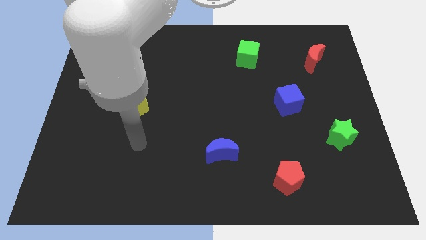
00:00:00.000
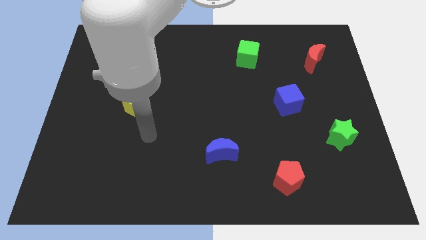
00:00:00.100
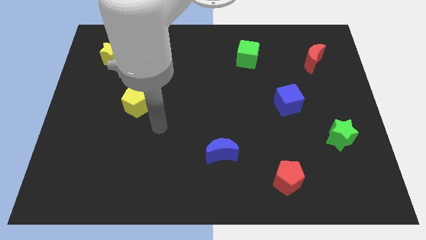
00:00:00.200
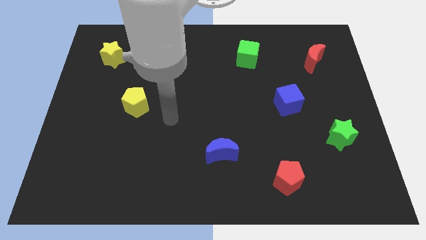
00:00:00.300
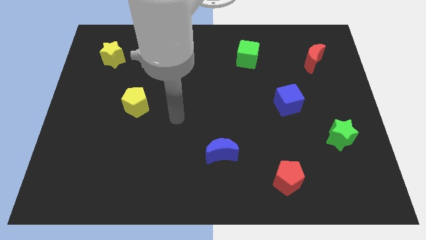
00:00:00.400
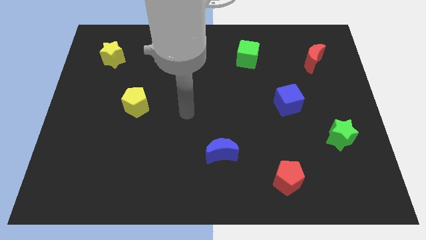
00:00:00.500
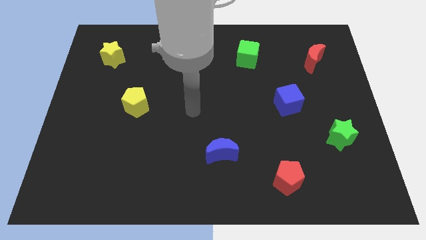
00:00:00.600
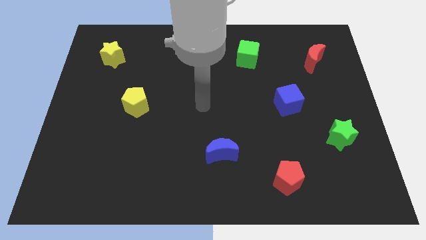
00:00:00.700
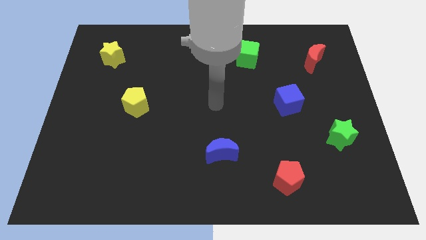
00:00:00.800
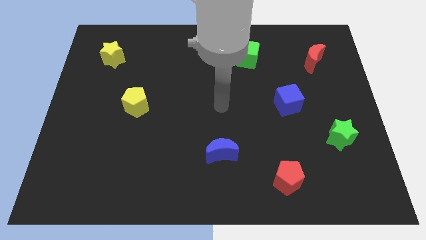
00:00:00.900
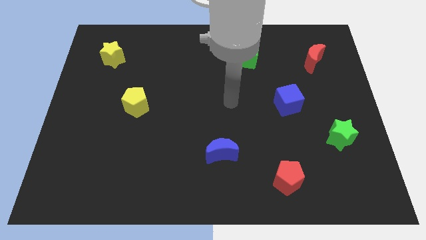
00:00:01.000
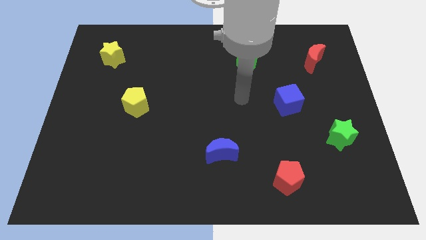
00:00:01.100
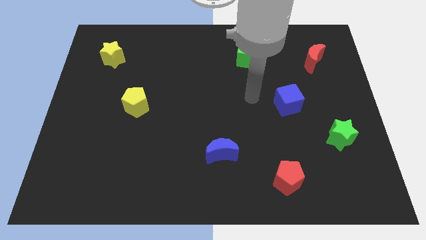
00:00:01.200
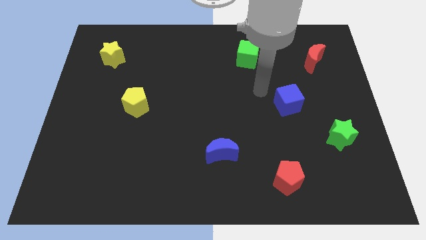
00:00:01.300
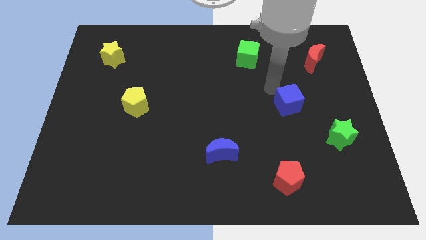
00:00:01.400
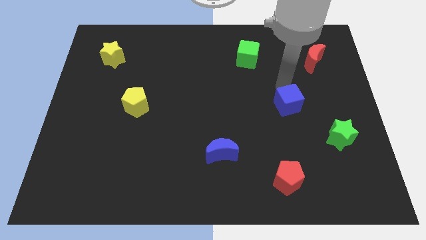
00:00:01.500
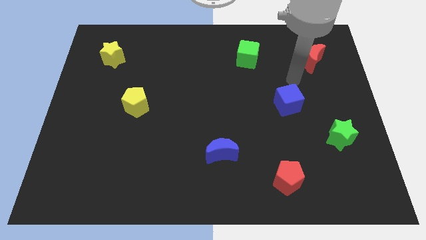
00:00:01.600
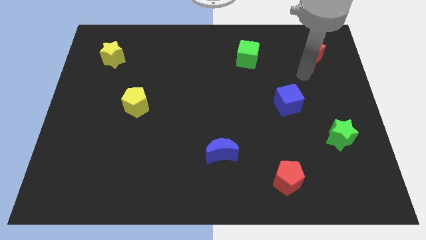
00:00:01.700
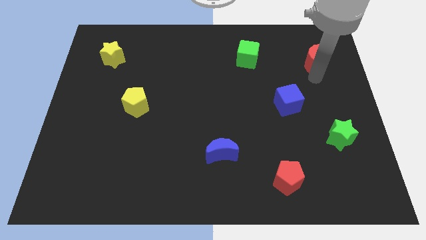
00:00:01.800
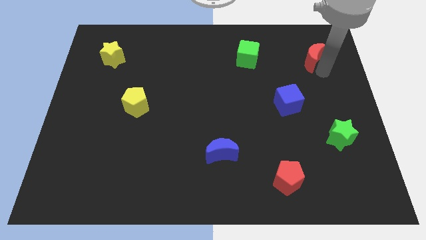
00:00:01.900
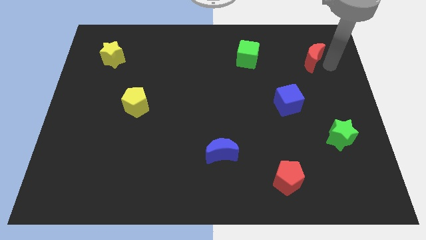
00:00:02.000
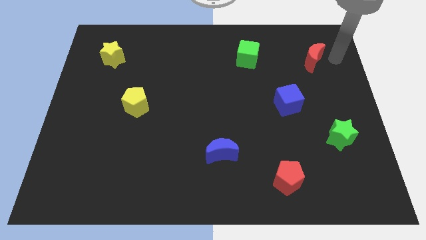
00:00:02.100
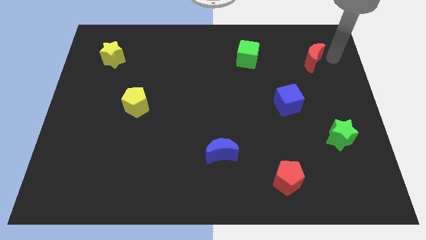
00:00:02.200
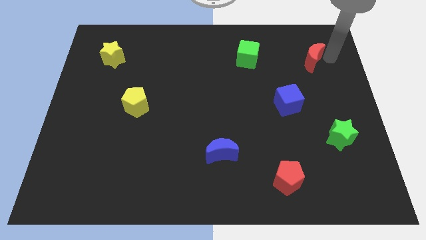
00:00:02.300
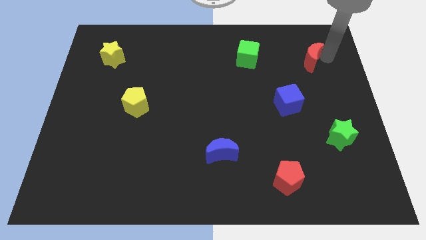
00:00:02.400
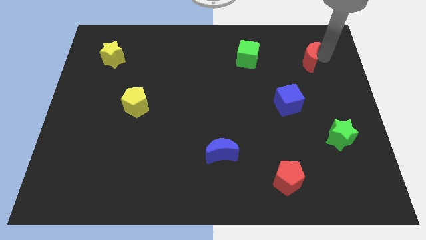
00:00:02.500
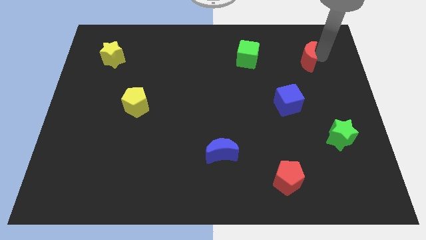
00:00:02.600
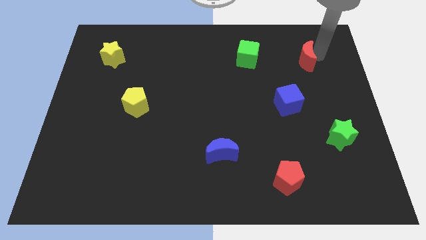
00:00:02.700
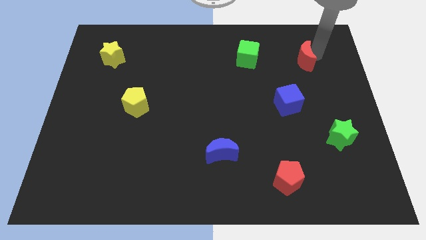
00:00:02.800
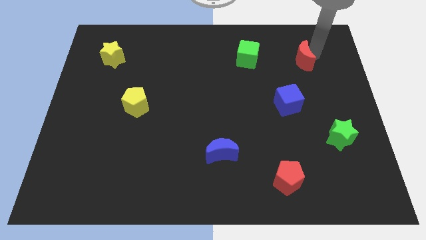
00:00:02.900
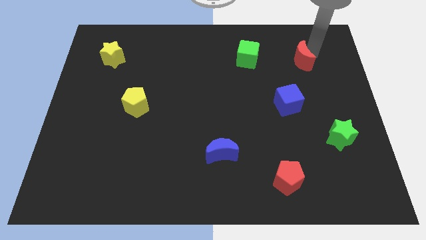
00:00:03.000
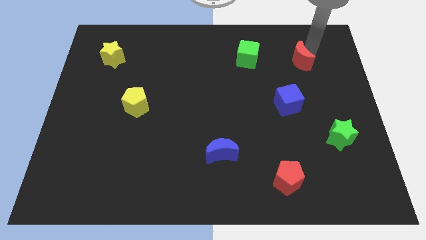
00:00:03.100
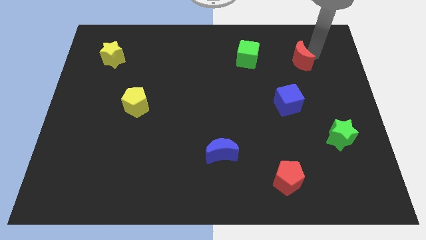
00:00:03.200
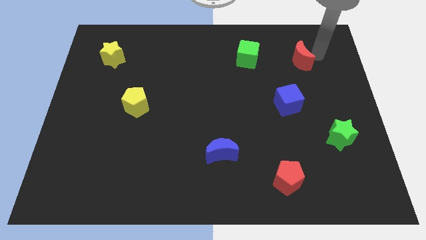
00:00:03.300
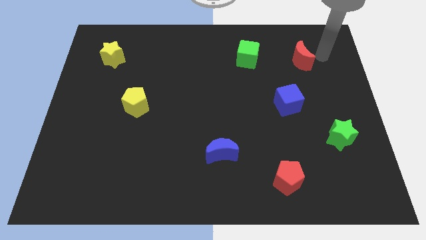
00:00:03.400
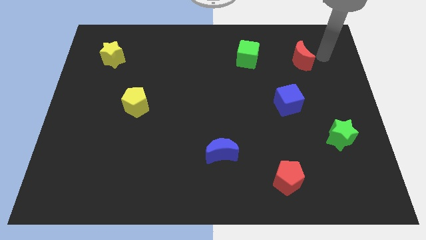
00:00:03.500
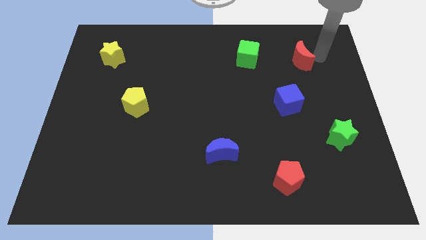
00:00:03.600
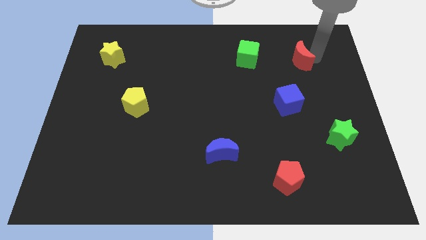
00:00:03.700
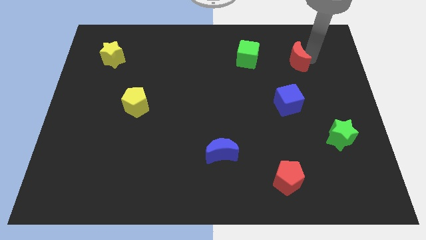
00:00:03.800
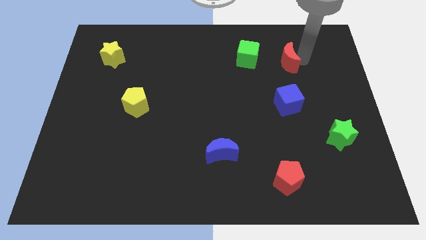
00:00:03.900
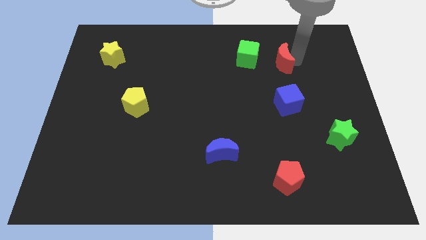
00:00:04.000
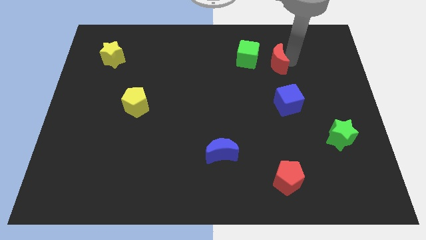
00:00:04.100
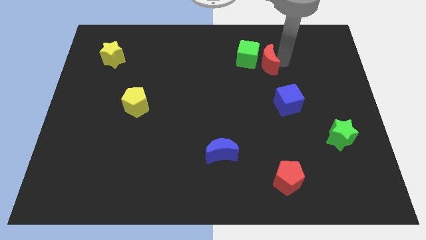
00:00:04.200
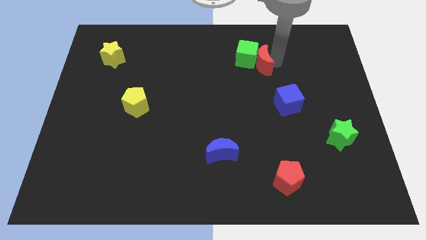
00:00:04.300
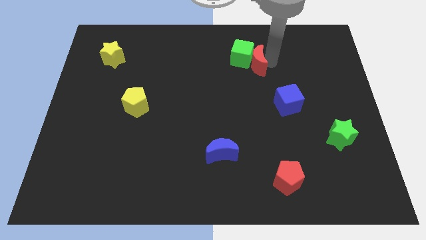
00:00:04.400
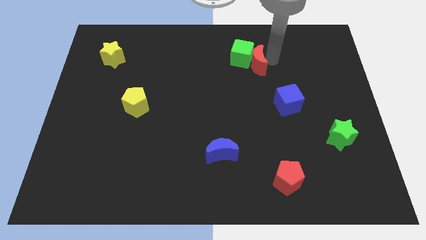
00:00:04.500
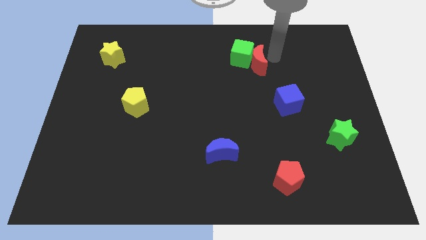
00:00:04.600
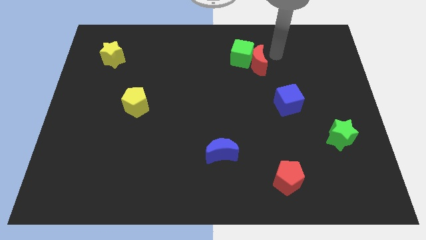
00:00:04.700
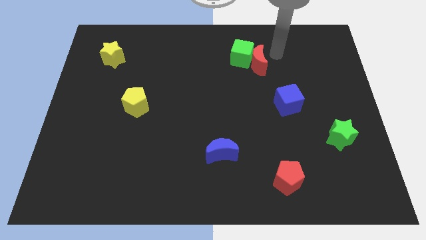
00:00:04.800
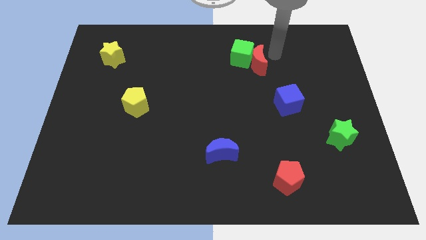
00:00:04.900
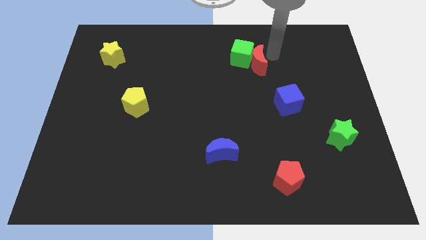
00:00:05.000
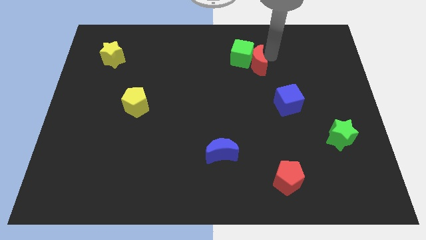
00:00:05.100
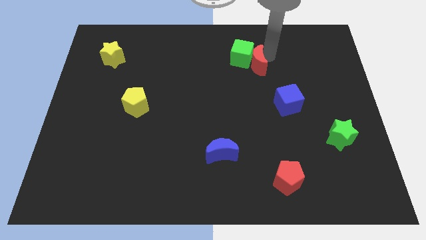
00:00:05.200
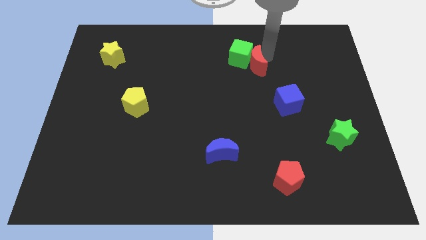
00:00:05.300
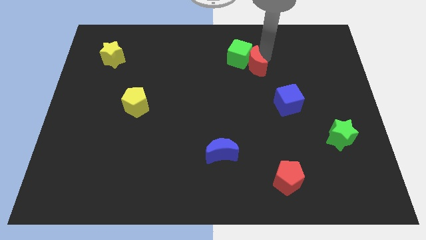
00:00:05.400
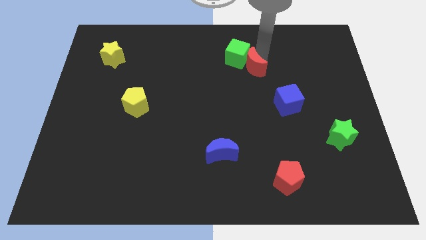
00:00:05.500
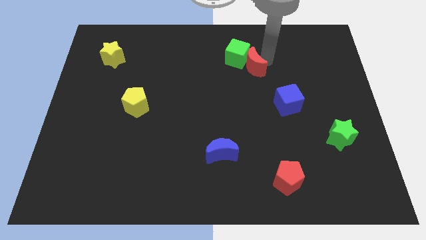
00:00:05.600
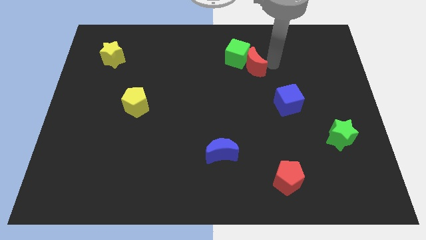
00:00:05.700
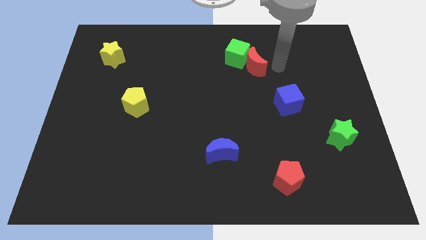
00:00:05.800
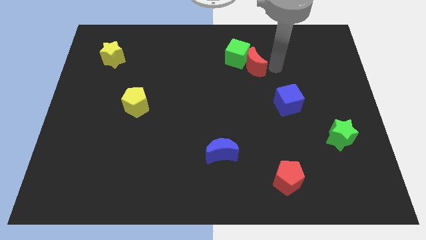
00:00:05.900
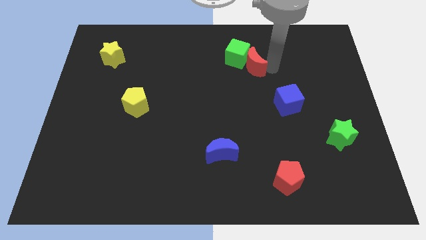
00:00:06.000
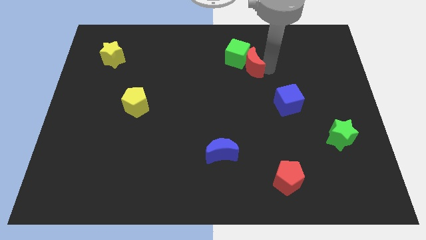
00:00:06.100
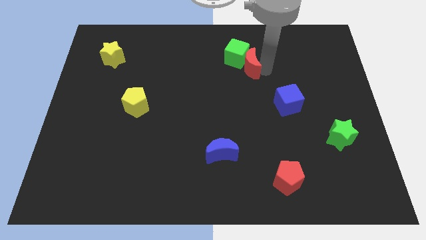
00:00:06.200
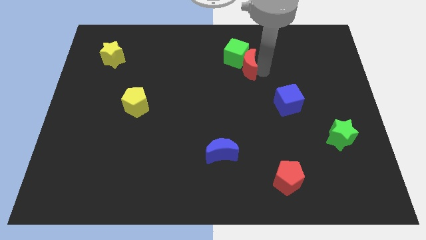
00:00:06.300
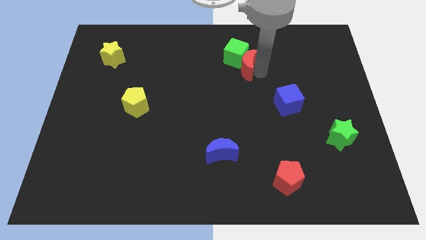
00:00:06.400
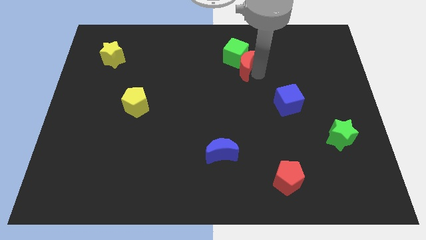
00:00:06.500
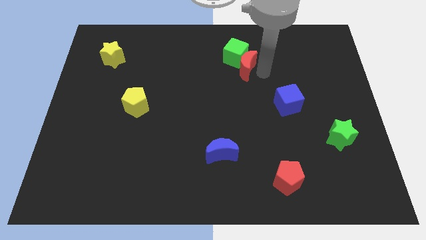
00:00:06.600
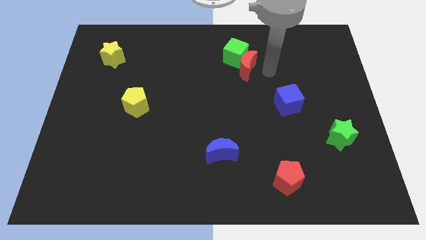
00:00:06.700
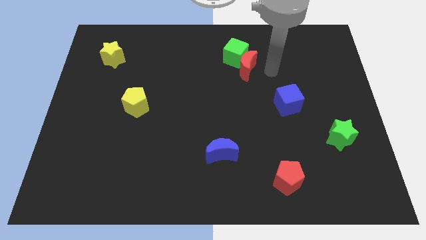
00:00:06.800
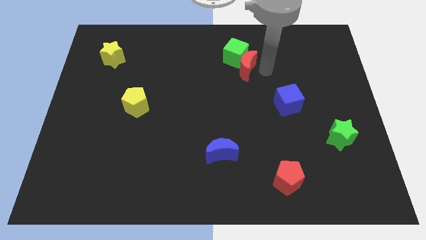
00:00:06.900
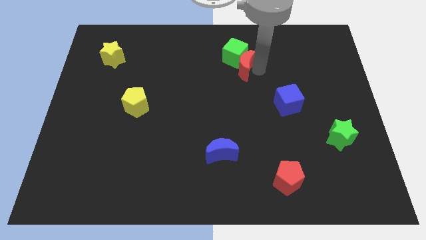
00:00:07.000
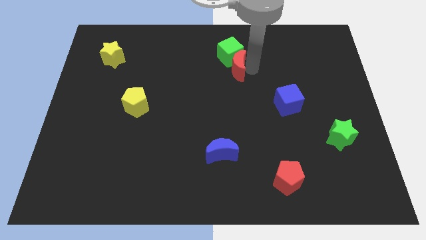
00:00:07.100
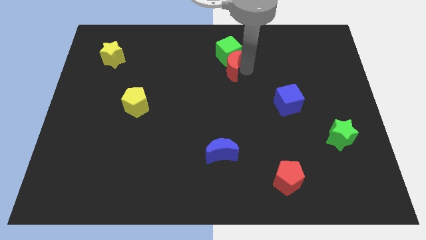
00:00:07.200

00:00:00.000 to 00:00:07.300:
move the red moon left
